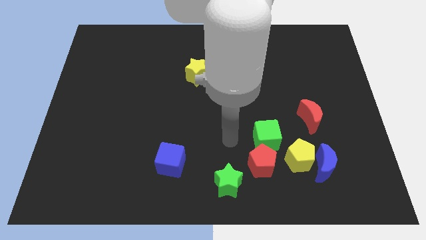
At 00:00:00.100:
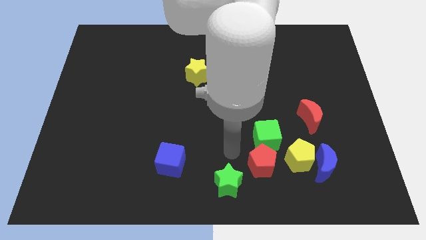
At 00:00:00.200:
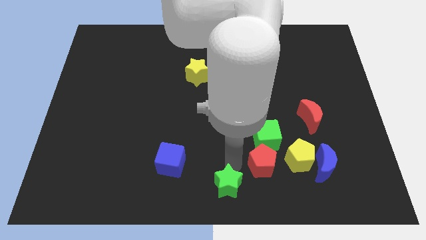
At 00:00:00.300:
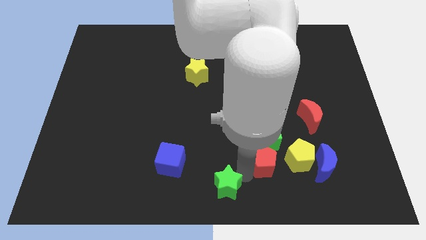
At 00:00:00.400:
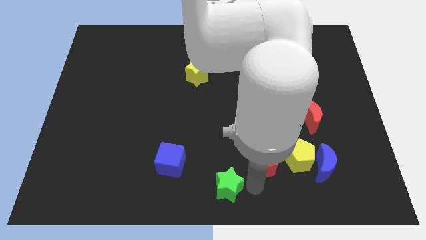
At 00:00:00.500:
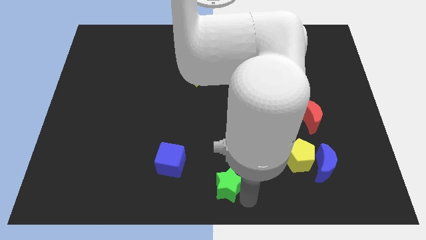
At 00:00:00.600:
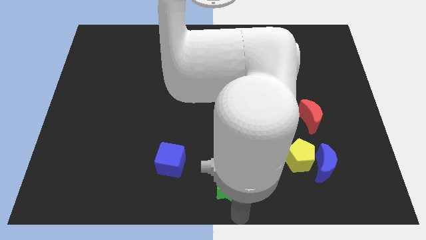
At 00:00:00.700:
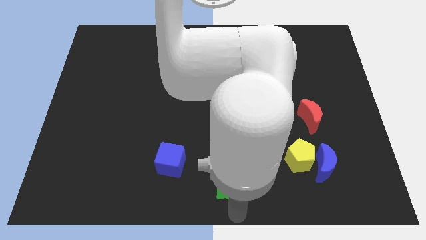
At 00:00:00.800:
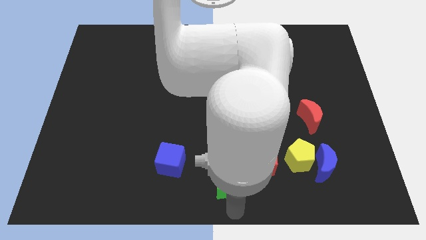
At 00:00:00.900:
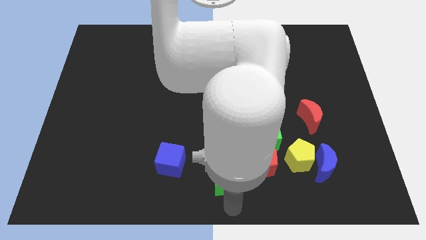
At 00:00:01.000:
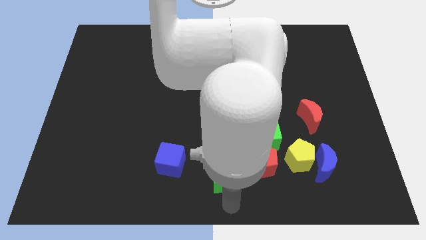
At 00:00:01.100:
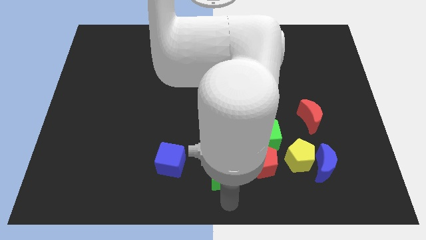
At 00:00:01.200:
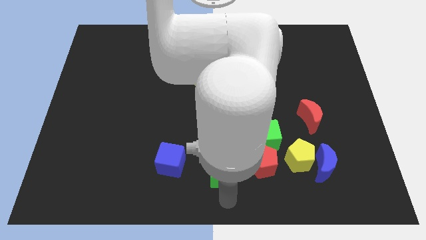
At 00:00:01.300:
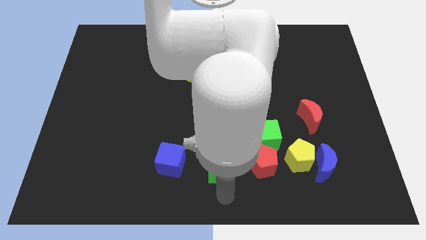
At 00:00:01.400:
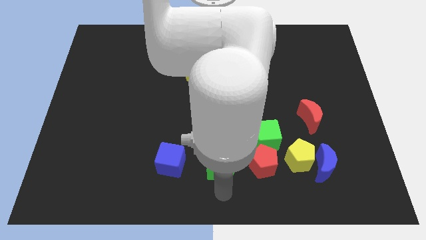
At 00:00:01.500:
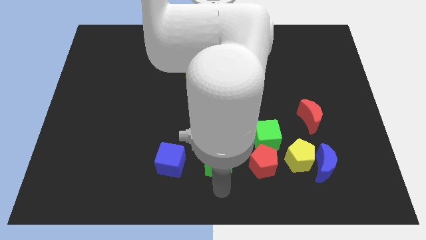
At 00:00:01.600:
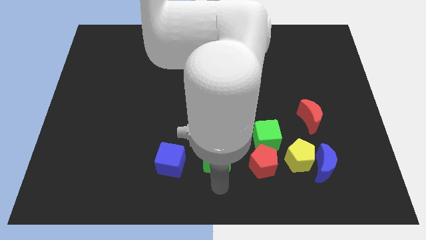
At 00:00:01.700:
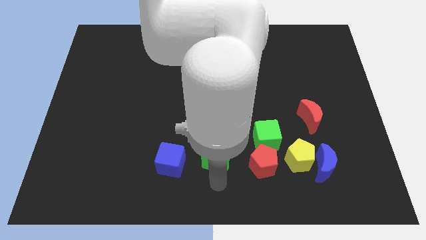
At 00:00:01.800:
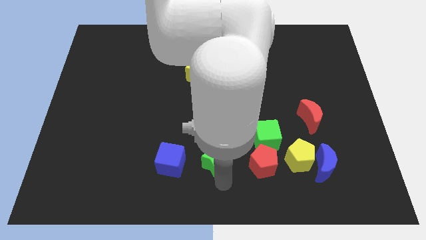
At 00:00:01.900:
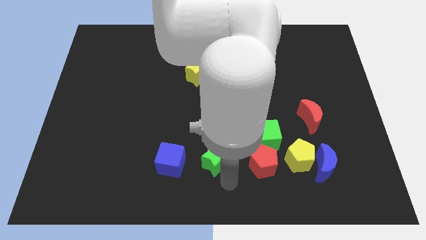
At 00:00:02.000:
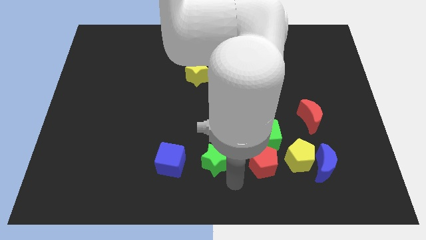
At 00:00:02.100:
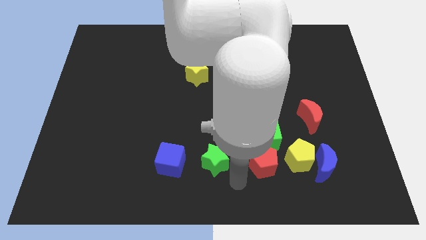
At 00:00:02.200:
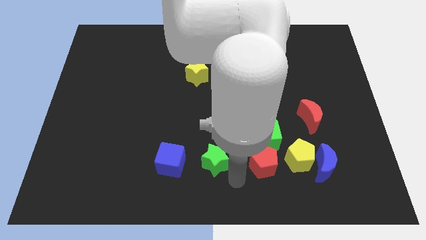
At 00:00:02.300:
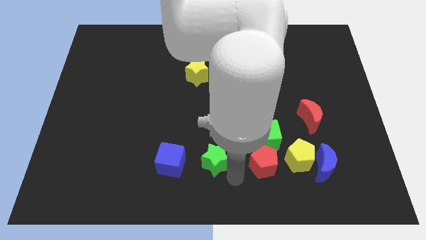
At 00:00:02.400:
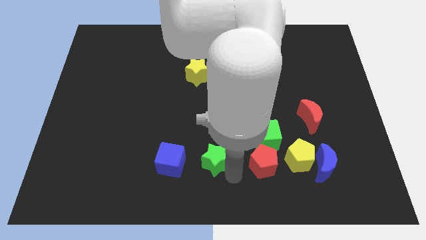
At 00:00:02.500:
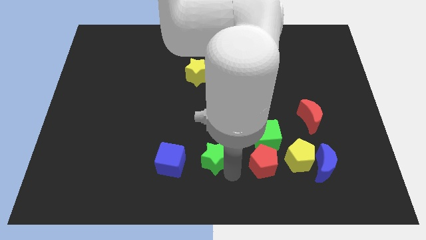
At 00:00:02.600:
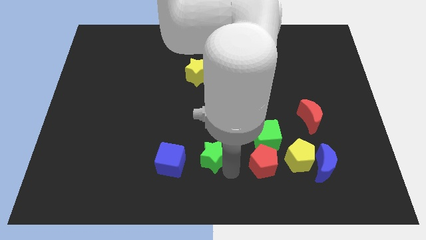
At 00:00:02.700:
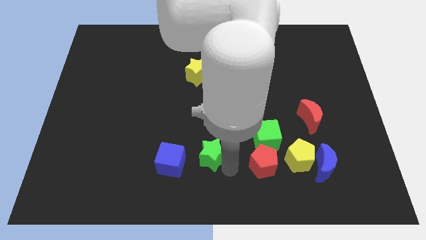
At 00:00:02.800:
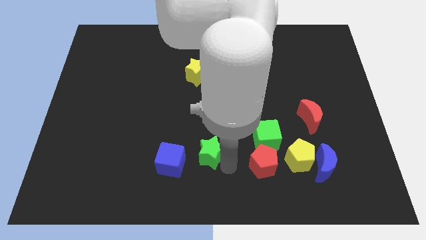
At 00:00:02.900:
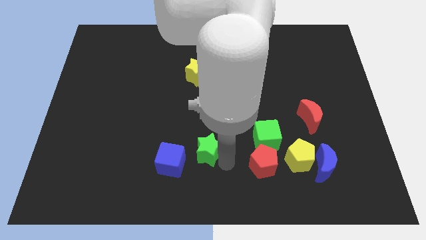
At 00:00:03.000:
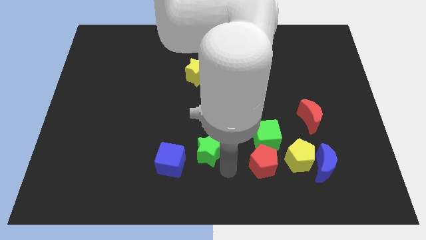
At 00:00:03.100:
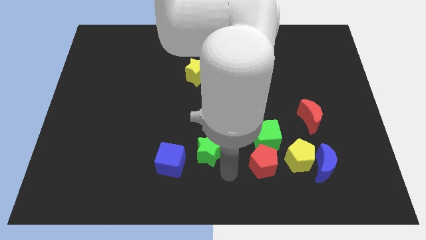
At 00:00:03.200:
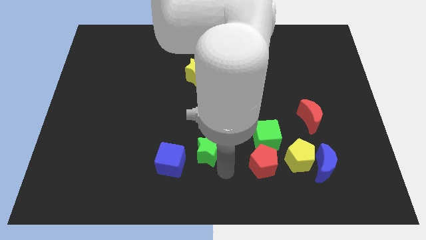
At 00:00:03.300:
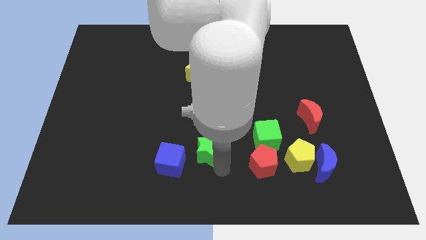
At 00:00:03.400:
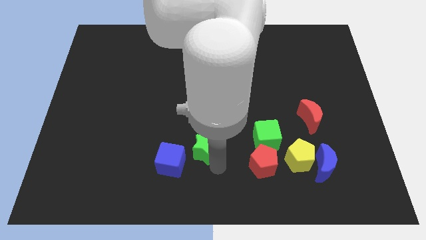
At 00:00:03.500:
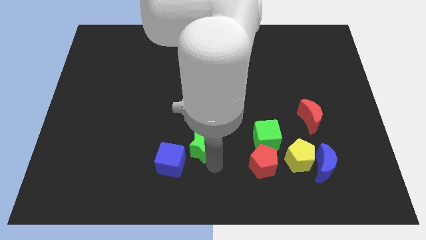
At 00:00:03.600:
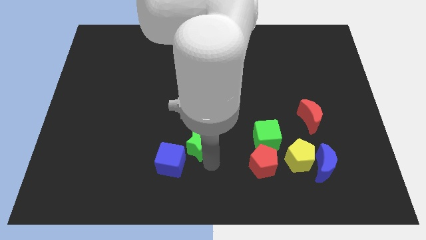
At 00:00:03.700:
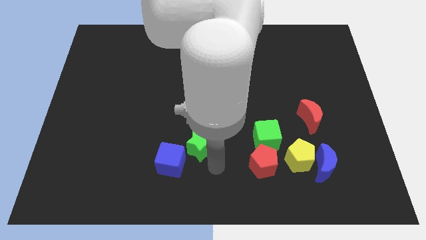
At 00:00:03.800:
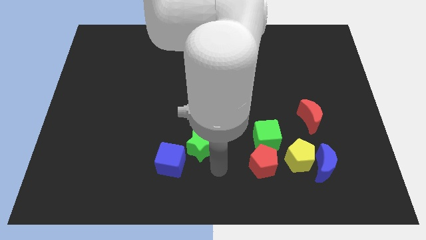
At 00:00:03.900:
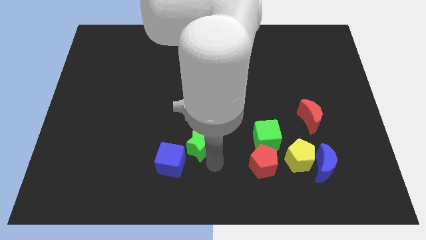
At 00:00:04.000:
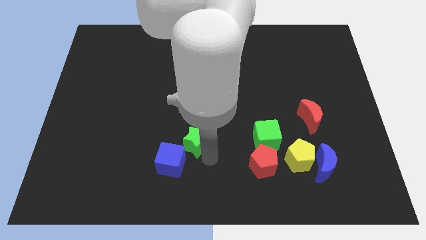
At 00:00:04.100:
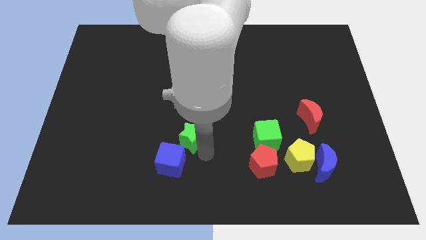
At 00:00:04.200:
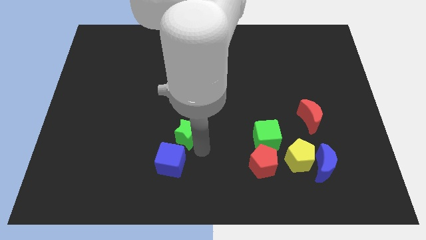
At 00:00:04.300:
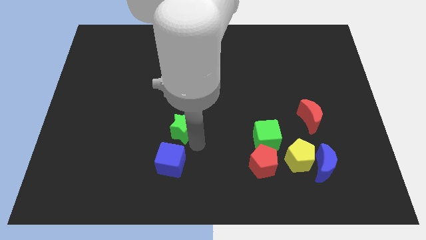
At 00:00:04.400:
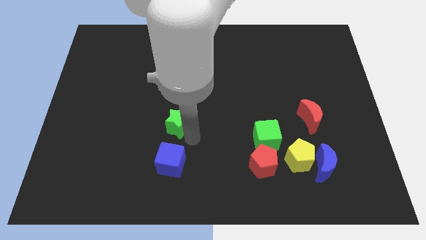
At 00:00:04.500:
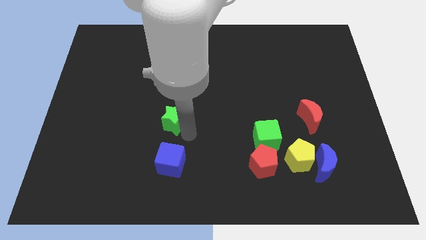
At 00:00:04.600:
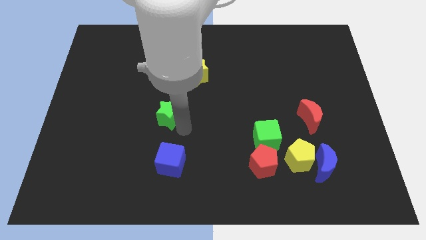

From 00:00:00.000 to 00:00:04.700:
move the green star up and then left

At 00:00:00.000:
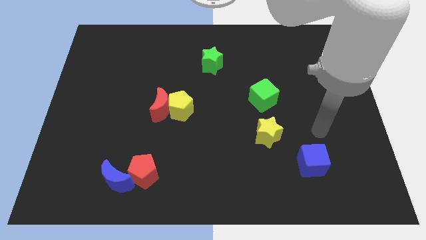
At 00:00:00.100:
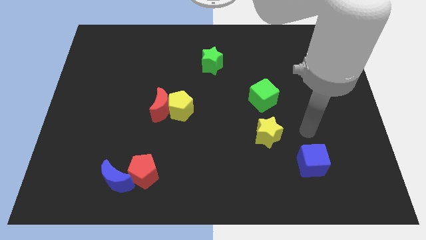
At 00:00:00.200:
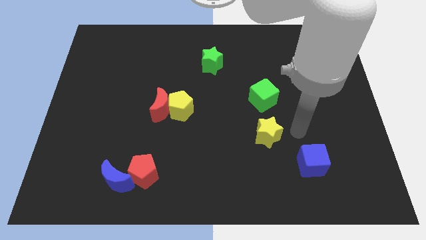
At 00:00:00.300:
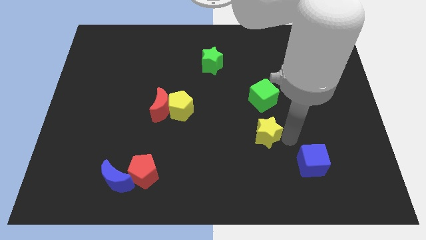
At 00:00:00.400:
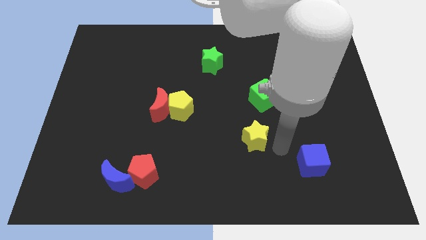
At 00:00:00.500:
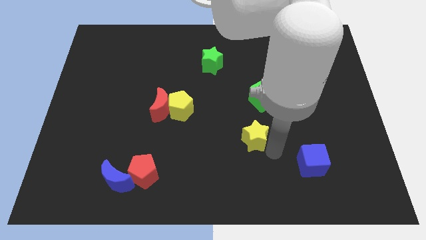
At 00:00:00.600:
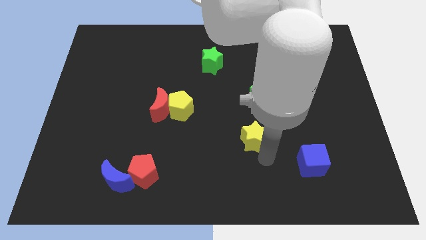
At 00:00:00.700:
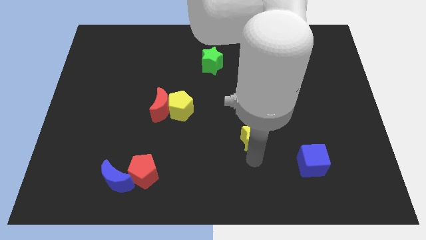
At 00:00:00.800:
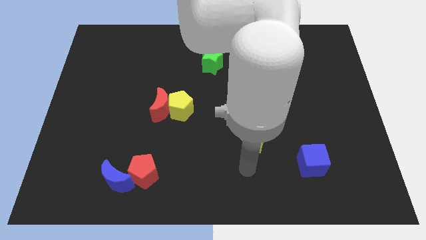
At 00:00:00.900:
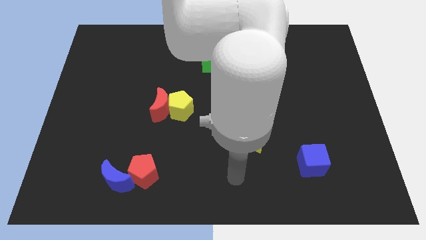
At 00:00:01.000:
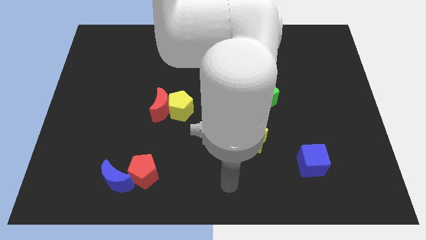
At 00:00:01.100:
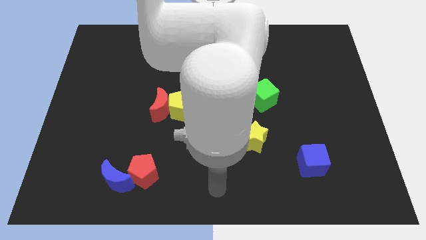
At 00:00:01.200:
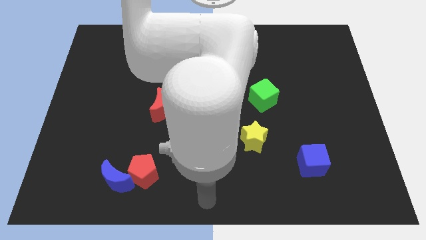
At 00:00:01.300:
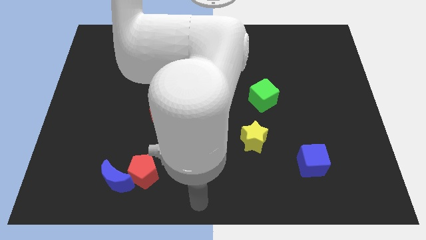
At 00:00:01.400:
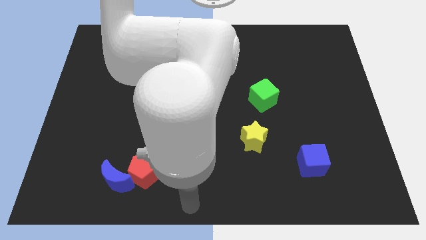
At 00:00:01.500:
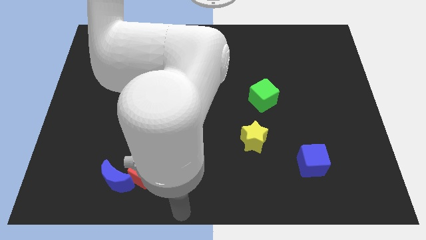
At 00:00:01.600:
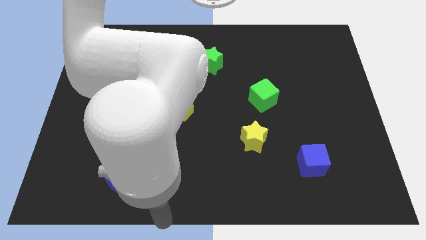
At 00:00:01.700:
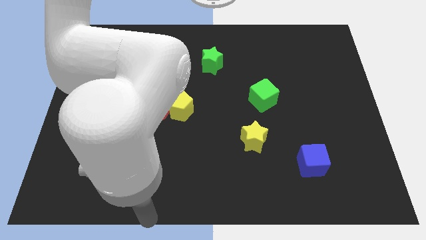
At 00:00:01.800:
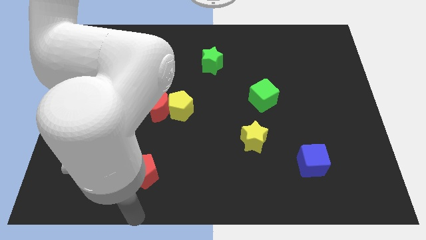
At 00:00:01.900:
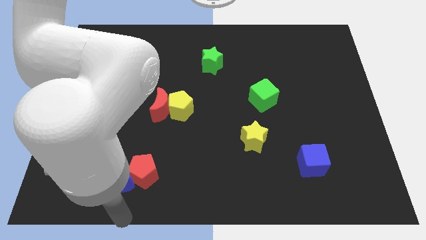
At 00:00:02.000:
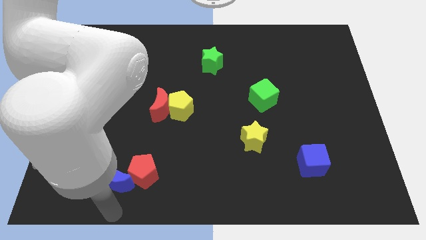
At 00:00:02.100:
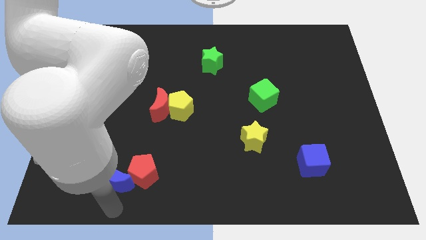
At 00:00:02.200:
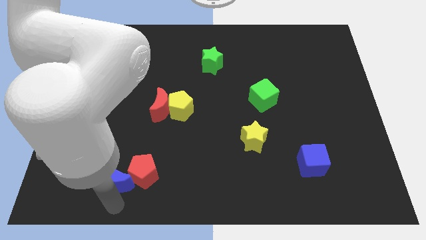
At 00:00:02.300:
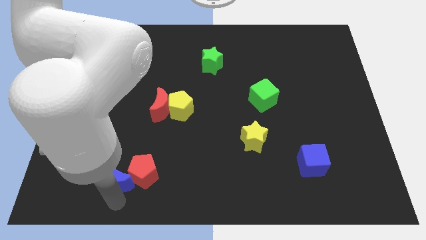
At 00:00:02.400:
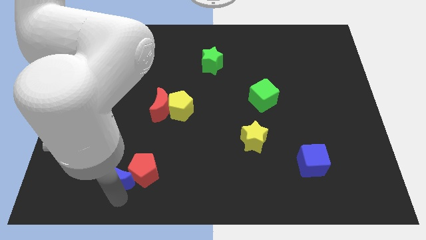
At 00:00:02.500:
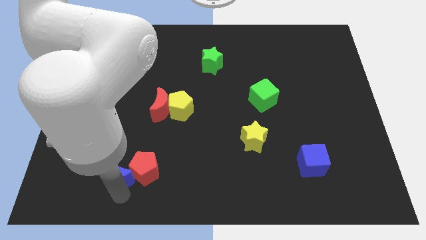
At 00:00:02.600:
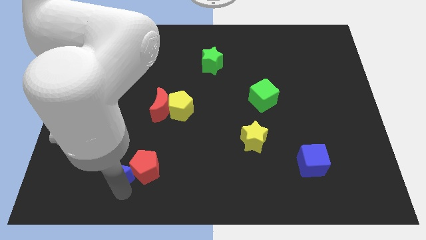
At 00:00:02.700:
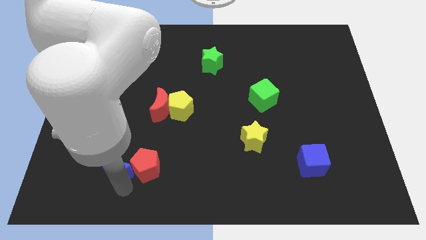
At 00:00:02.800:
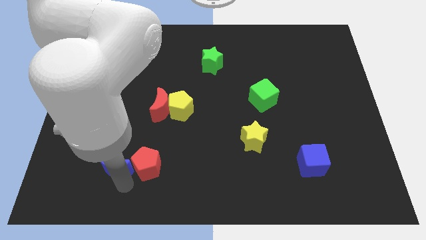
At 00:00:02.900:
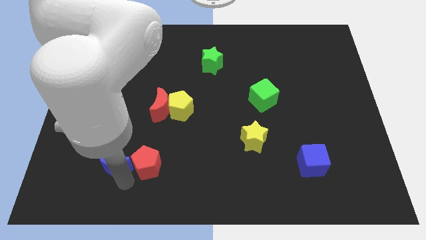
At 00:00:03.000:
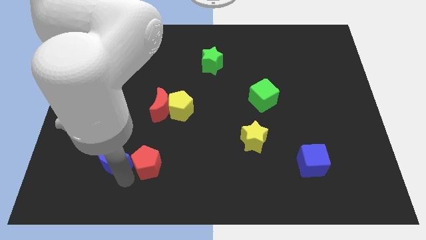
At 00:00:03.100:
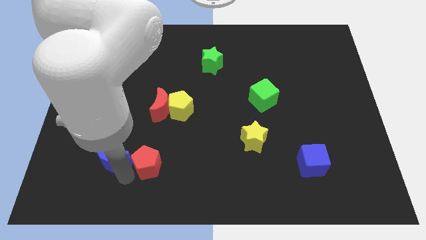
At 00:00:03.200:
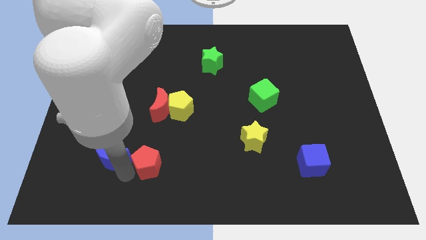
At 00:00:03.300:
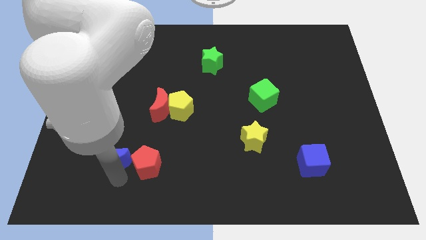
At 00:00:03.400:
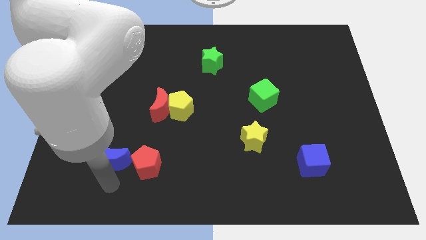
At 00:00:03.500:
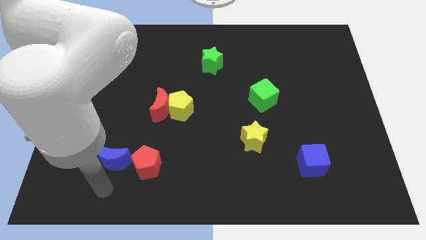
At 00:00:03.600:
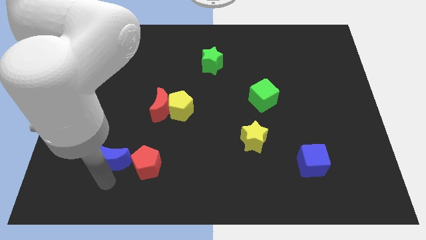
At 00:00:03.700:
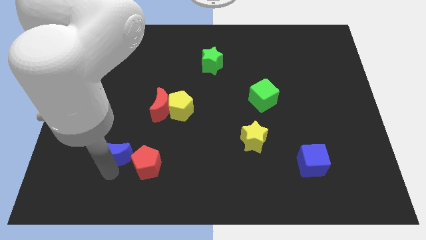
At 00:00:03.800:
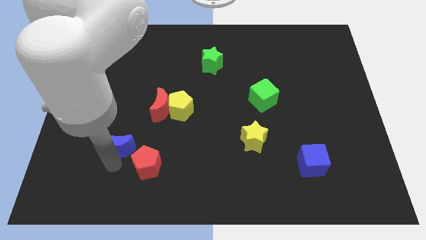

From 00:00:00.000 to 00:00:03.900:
slide the blue moon somewhat upwards
